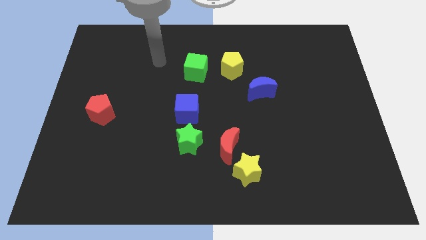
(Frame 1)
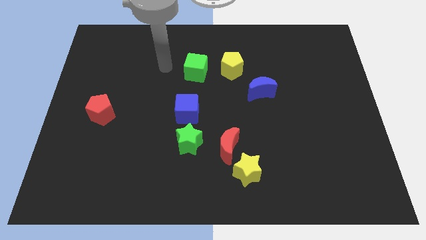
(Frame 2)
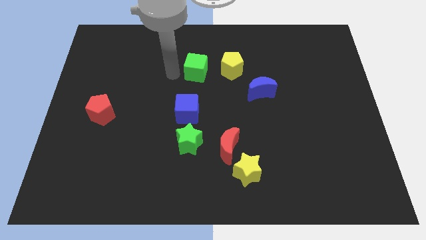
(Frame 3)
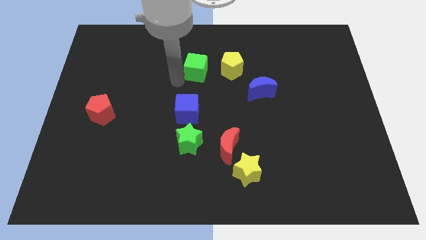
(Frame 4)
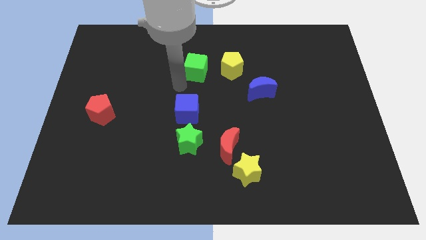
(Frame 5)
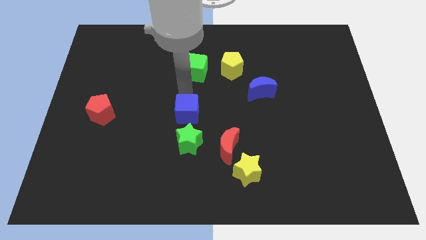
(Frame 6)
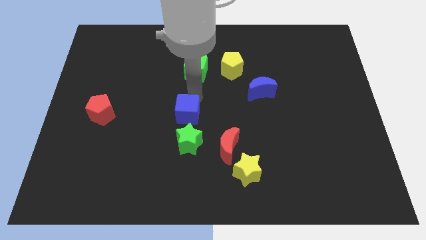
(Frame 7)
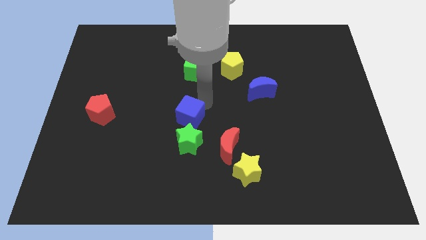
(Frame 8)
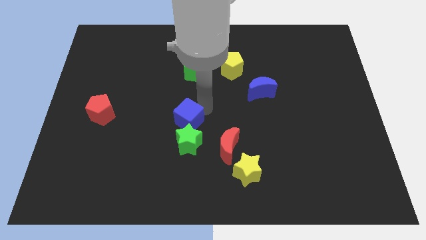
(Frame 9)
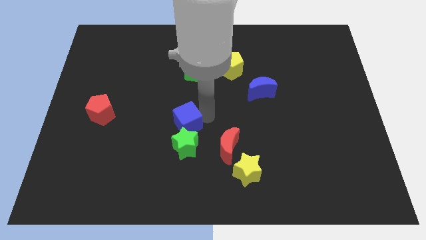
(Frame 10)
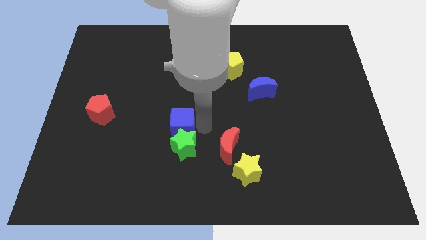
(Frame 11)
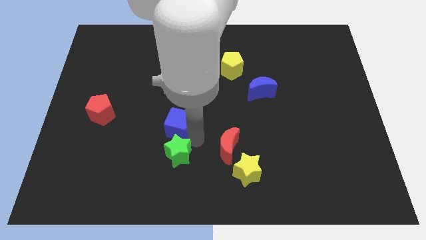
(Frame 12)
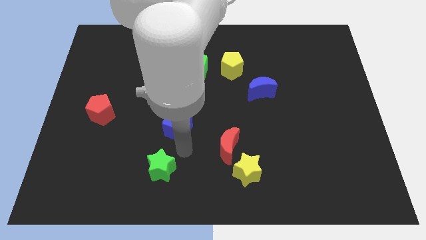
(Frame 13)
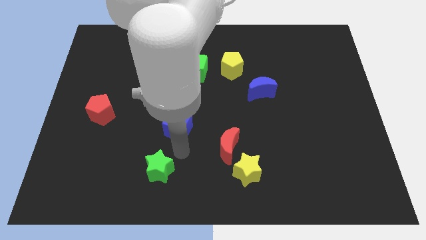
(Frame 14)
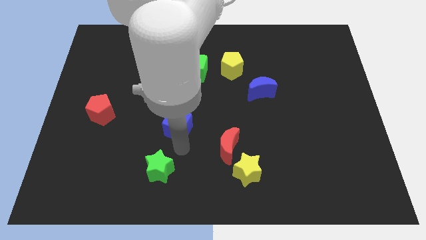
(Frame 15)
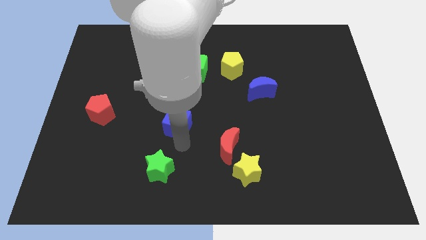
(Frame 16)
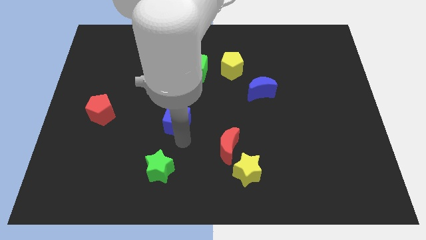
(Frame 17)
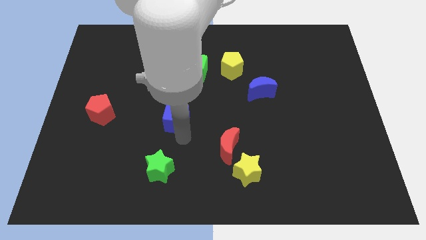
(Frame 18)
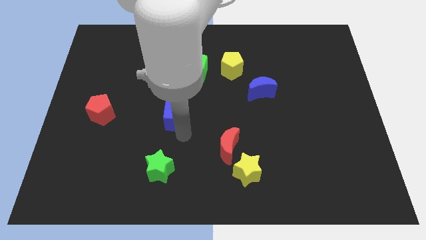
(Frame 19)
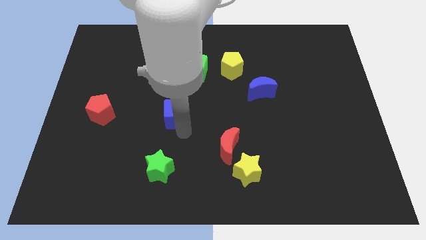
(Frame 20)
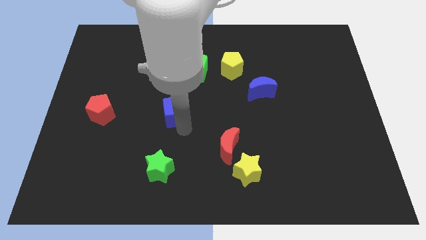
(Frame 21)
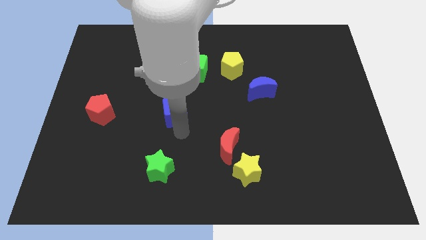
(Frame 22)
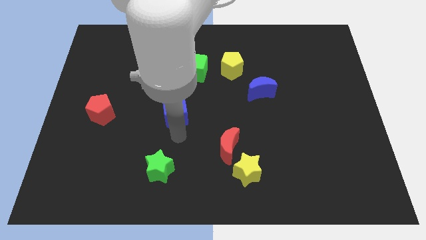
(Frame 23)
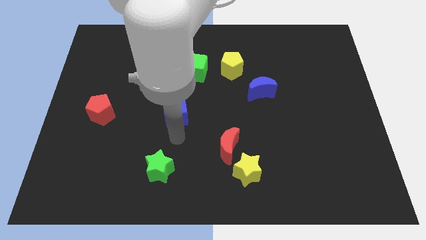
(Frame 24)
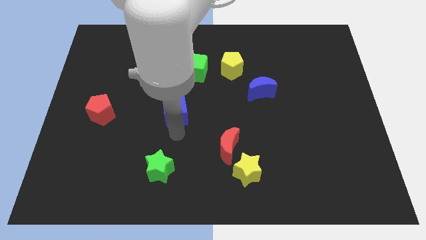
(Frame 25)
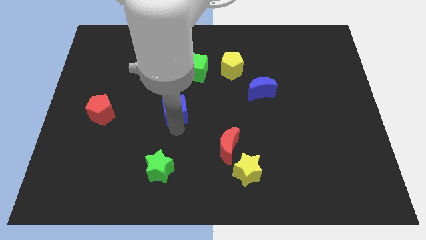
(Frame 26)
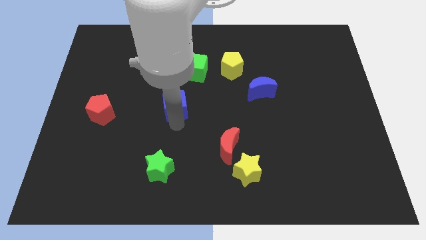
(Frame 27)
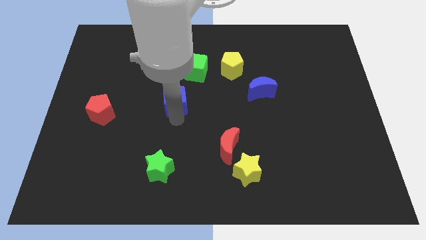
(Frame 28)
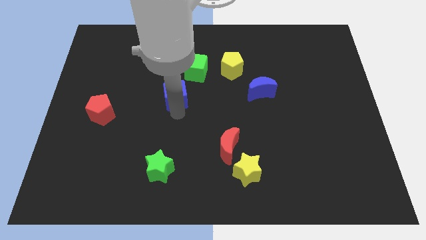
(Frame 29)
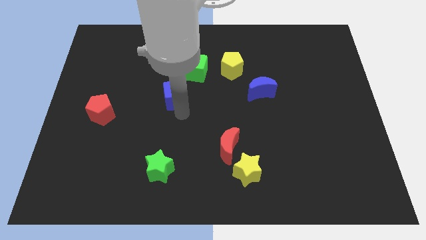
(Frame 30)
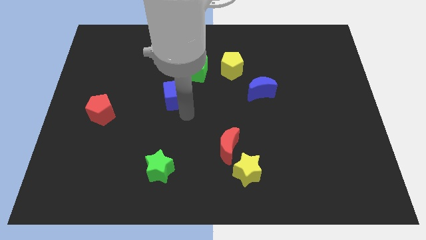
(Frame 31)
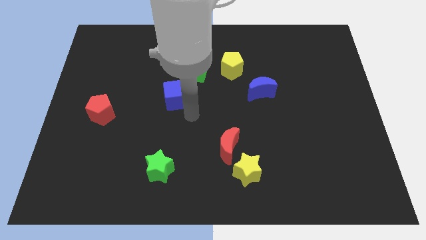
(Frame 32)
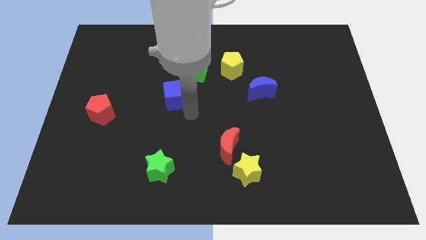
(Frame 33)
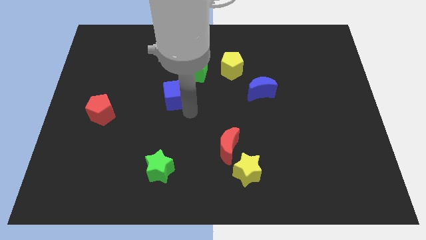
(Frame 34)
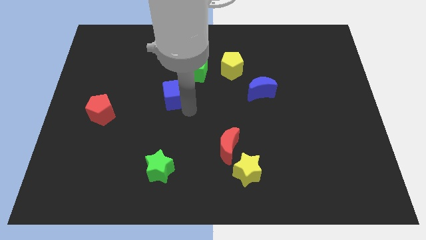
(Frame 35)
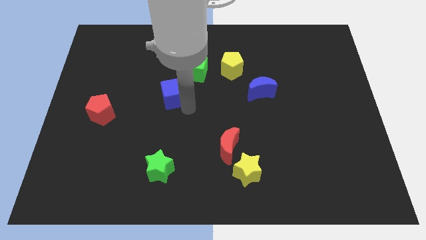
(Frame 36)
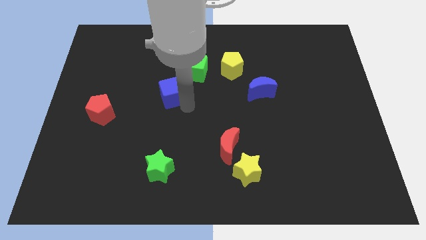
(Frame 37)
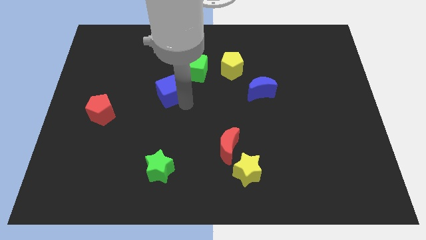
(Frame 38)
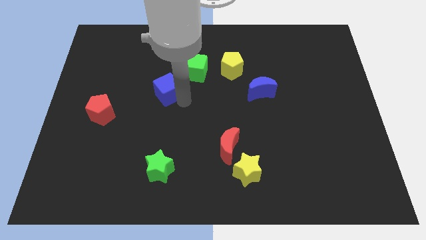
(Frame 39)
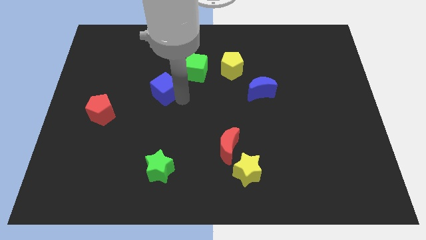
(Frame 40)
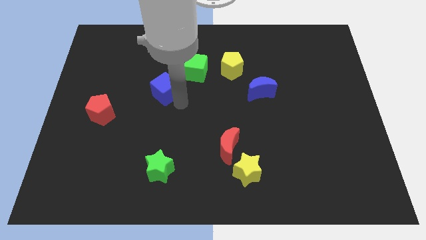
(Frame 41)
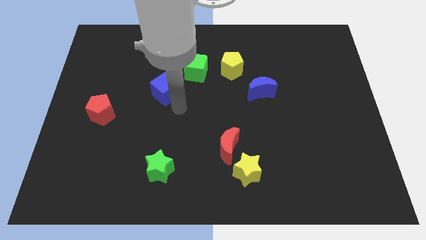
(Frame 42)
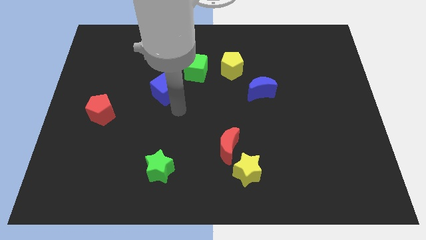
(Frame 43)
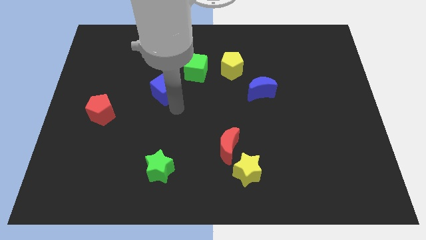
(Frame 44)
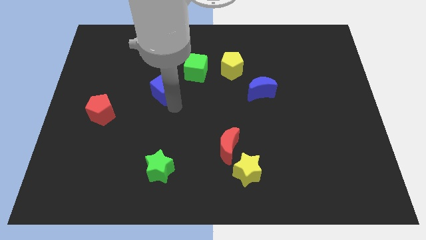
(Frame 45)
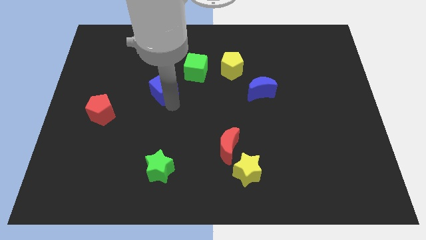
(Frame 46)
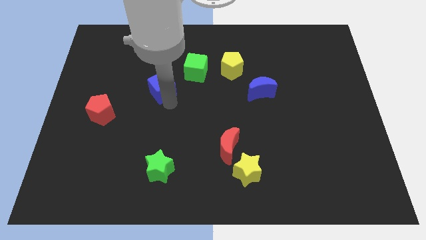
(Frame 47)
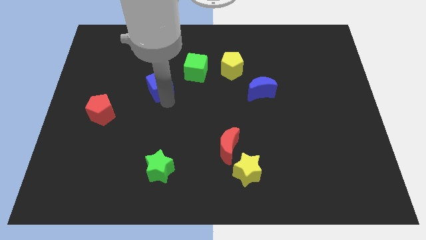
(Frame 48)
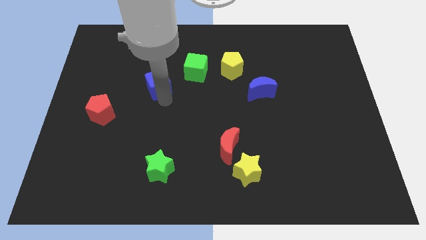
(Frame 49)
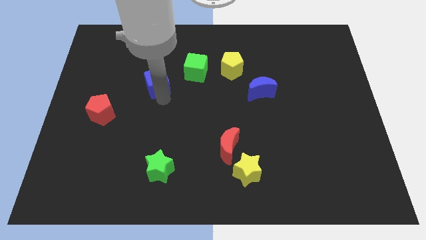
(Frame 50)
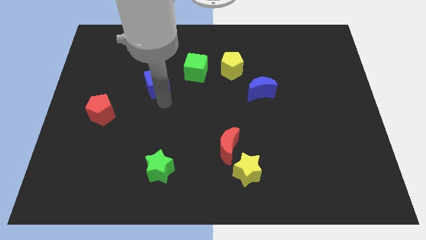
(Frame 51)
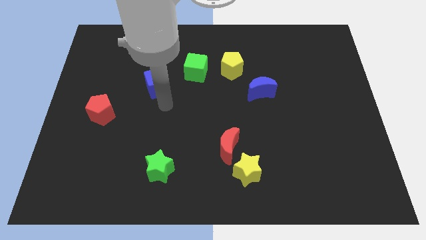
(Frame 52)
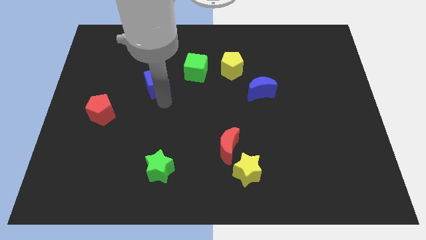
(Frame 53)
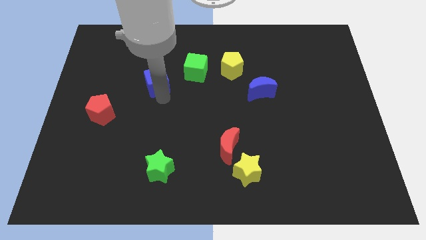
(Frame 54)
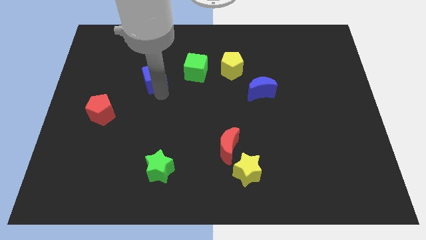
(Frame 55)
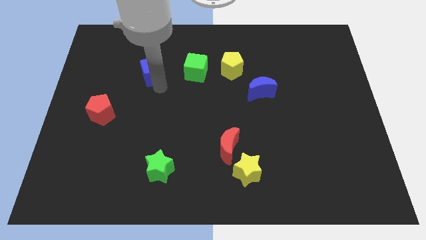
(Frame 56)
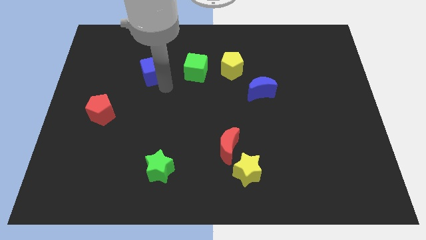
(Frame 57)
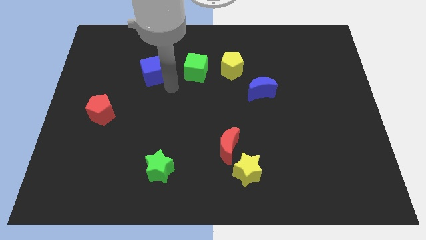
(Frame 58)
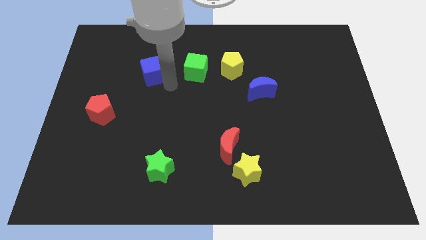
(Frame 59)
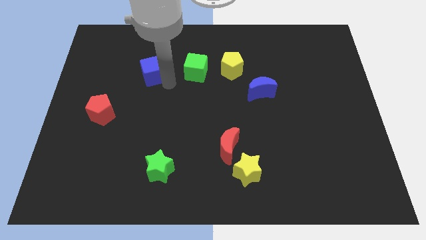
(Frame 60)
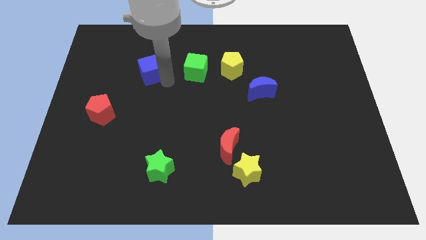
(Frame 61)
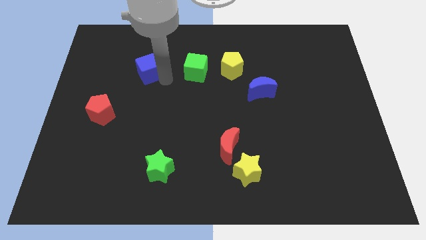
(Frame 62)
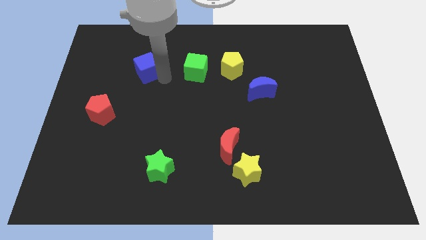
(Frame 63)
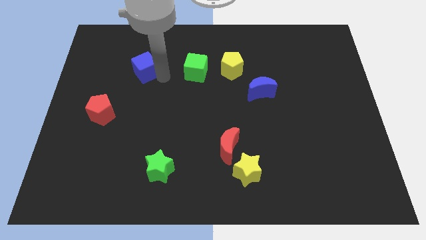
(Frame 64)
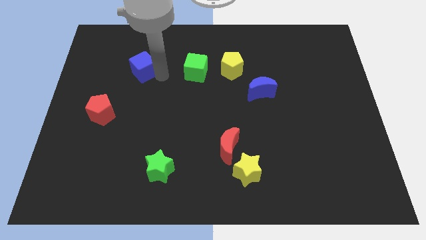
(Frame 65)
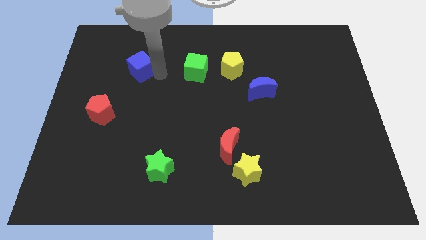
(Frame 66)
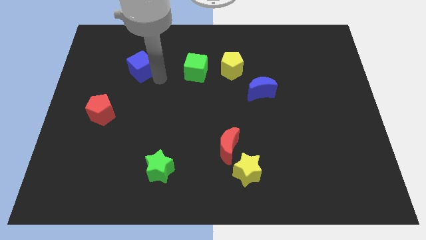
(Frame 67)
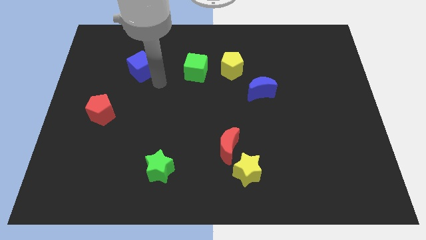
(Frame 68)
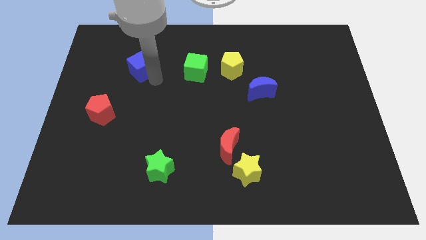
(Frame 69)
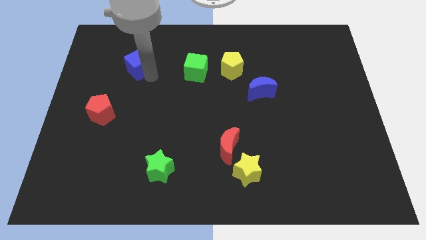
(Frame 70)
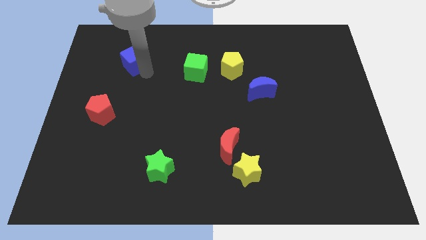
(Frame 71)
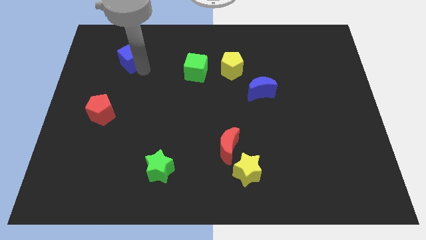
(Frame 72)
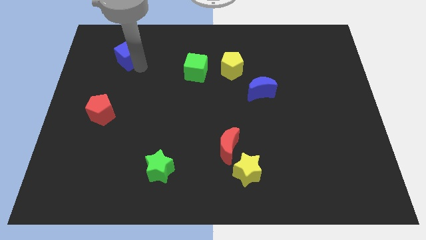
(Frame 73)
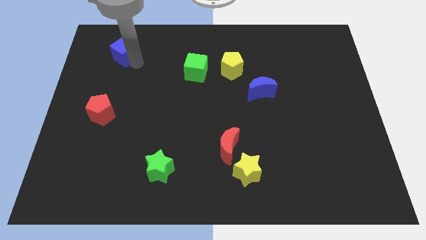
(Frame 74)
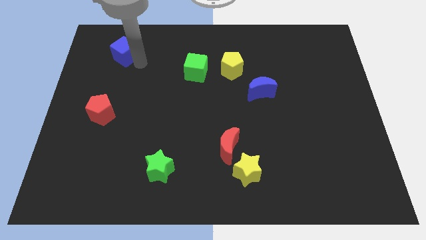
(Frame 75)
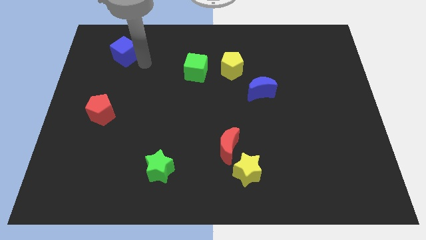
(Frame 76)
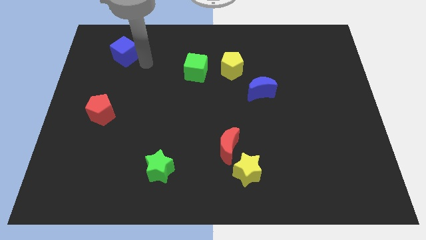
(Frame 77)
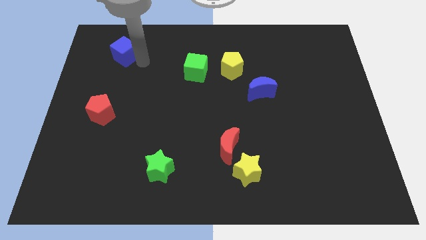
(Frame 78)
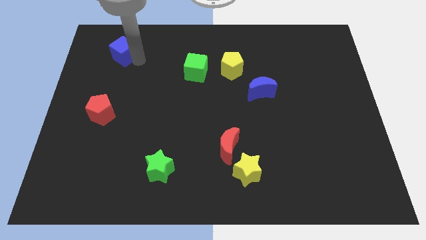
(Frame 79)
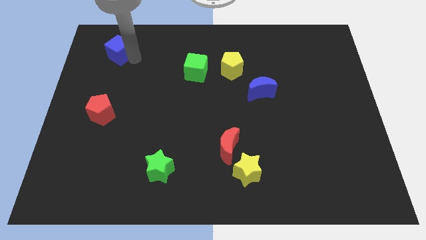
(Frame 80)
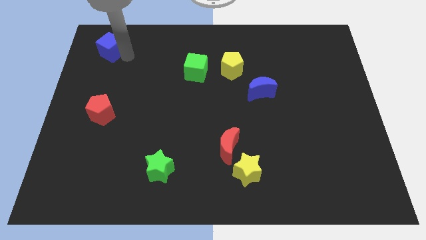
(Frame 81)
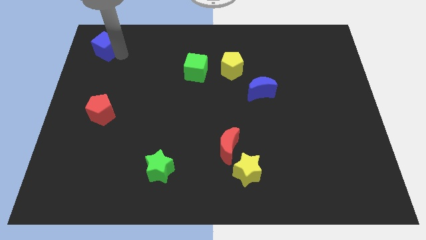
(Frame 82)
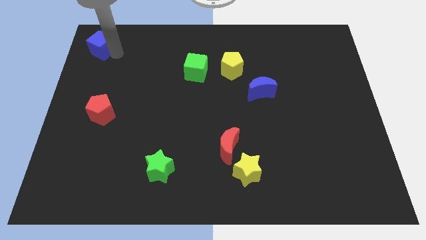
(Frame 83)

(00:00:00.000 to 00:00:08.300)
slide the blue cube to the upper left corner
